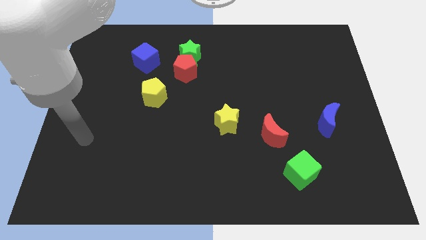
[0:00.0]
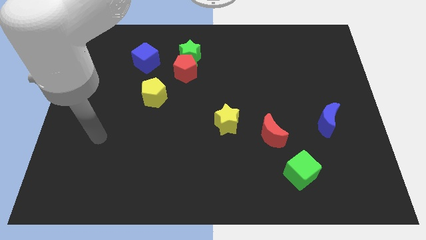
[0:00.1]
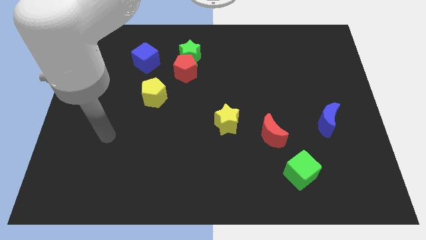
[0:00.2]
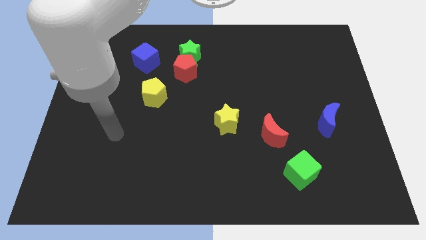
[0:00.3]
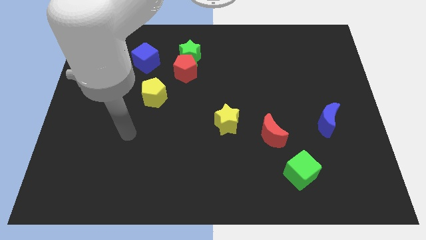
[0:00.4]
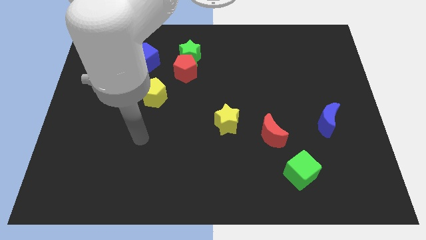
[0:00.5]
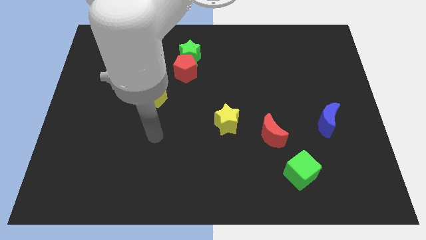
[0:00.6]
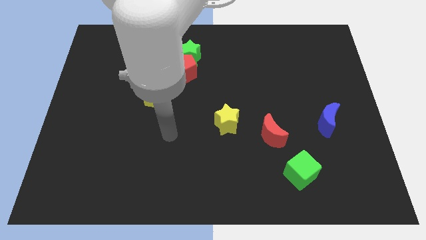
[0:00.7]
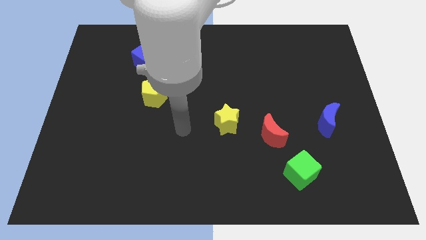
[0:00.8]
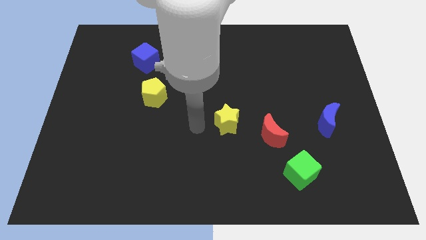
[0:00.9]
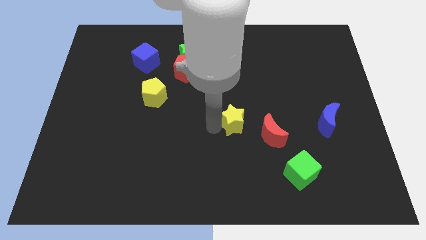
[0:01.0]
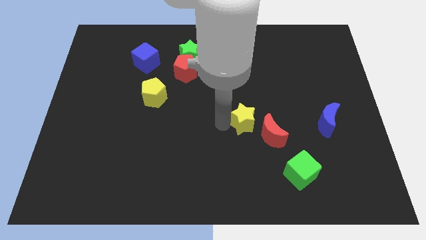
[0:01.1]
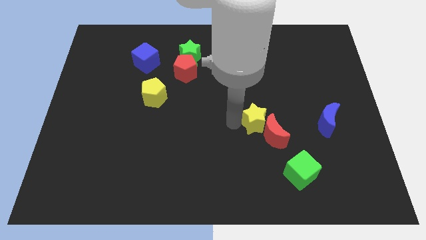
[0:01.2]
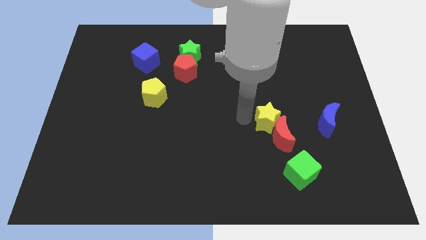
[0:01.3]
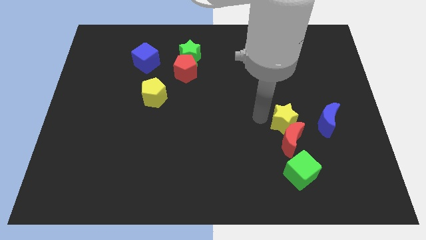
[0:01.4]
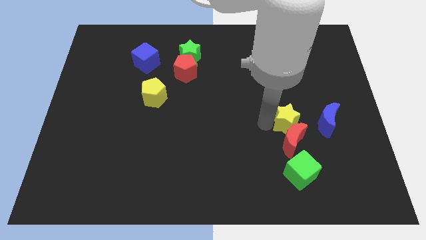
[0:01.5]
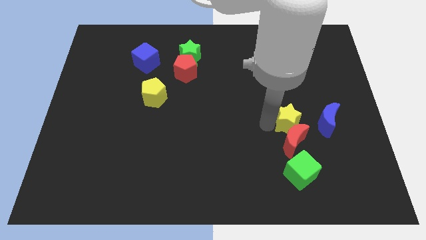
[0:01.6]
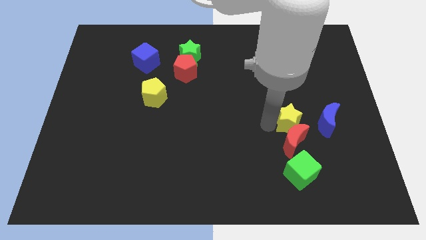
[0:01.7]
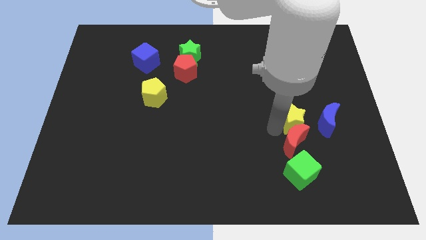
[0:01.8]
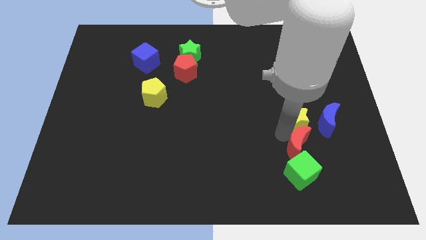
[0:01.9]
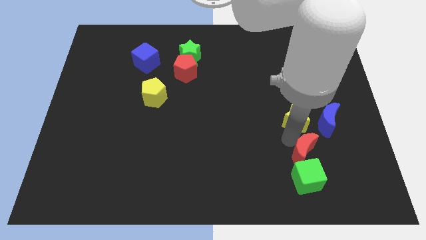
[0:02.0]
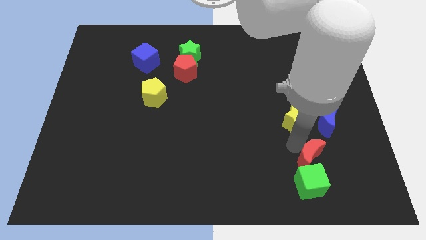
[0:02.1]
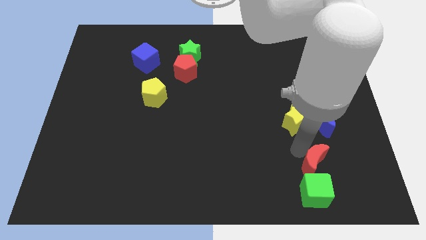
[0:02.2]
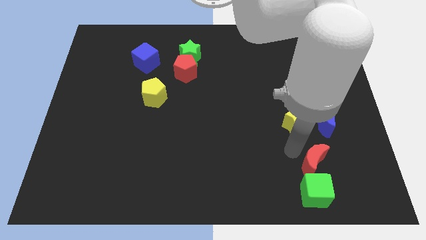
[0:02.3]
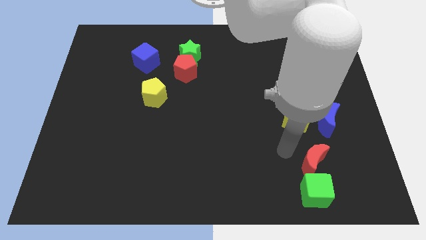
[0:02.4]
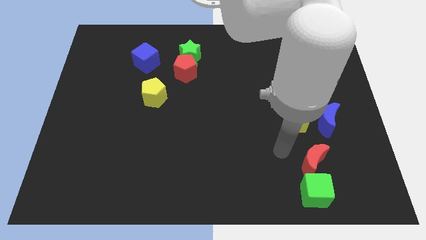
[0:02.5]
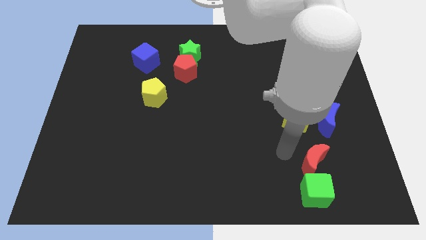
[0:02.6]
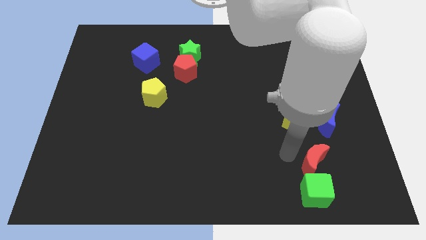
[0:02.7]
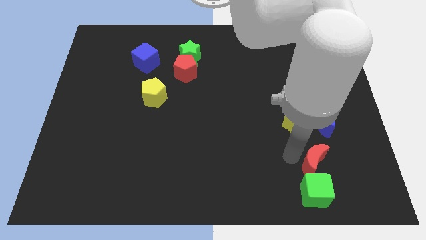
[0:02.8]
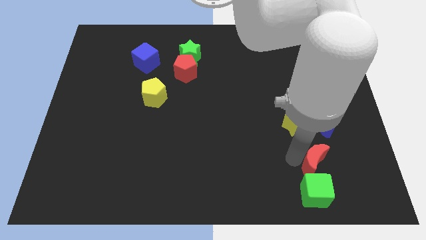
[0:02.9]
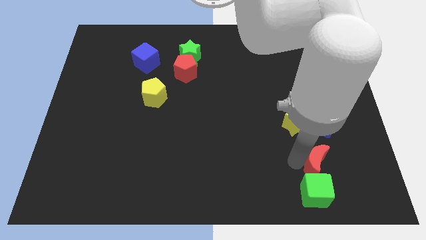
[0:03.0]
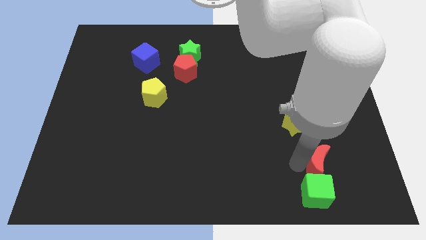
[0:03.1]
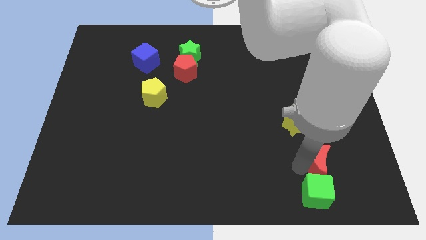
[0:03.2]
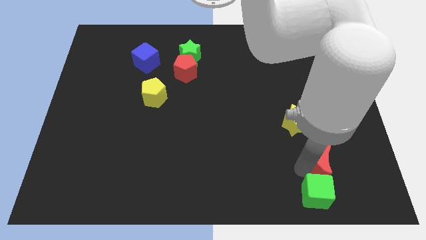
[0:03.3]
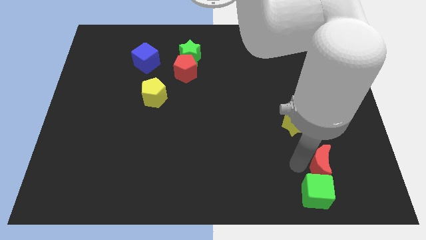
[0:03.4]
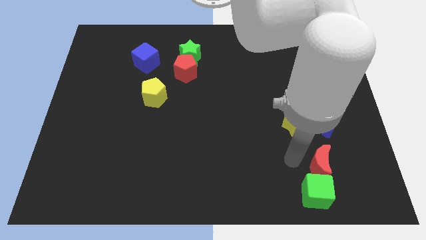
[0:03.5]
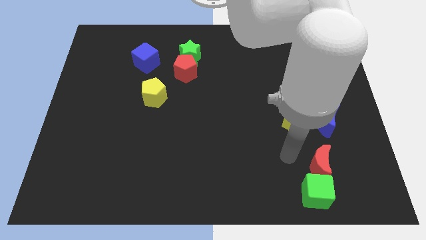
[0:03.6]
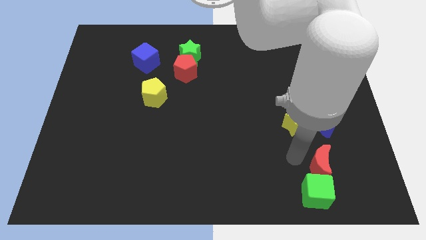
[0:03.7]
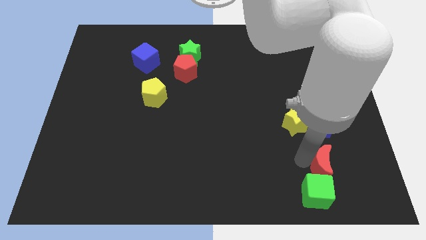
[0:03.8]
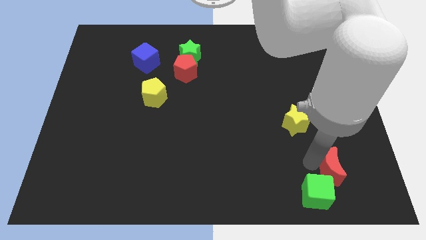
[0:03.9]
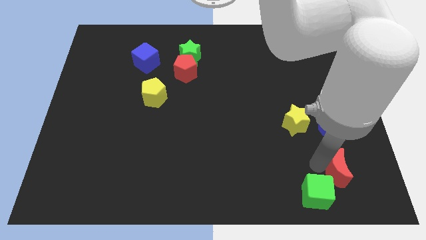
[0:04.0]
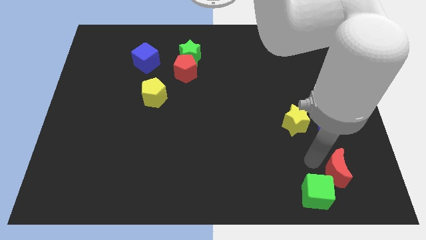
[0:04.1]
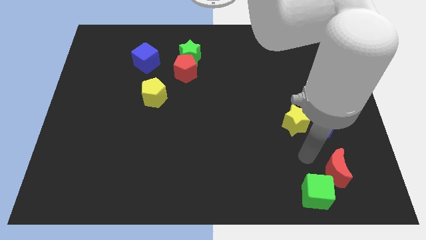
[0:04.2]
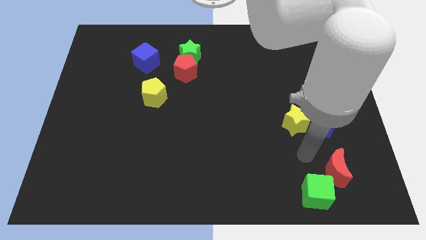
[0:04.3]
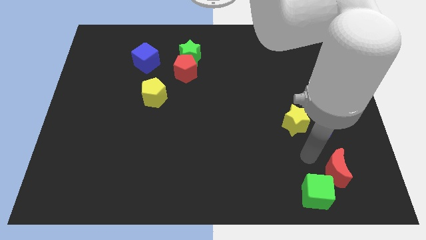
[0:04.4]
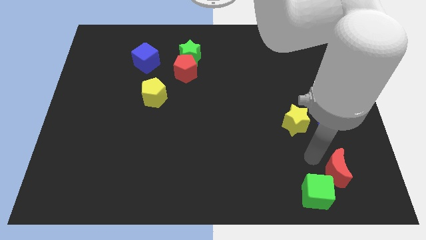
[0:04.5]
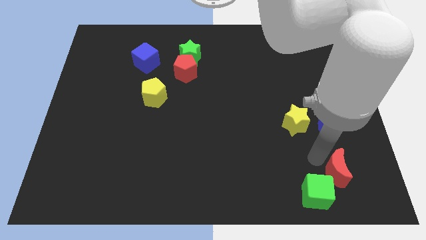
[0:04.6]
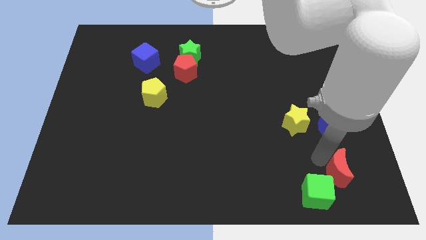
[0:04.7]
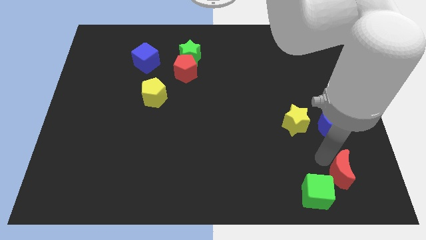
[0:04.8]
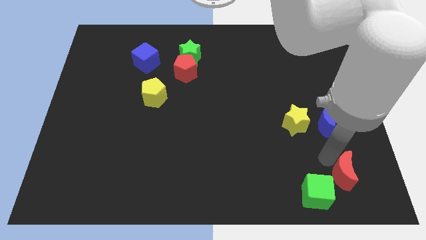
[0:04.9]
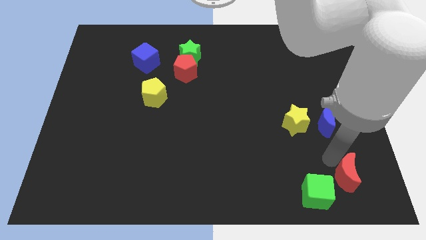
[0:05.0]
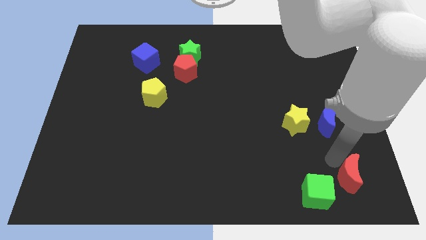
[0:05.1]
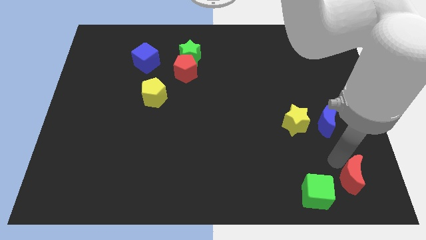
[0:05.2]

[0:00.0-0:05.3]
put the red moon to the bottom right of the board

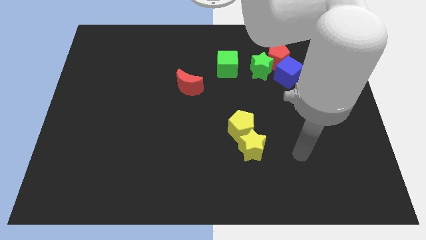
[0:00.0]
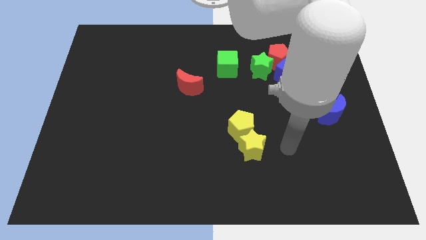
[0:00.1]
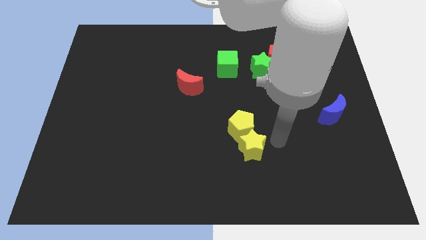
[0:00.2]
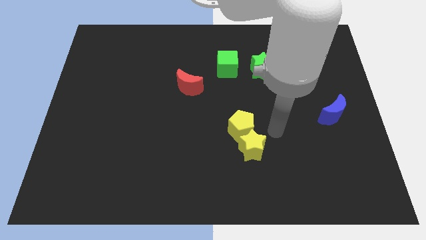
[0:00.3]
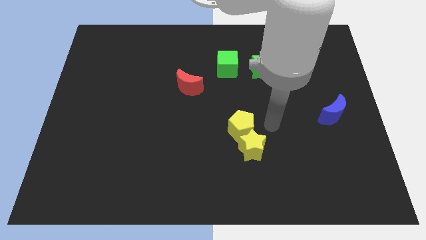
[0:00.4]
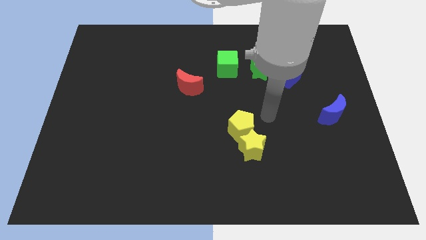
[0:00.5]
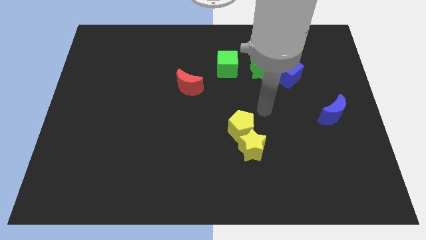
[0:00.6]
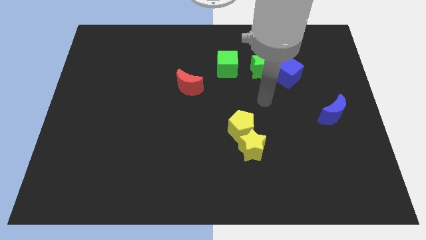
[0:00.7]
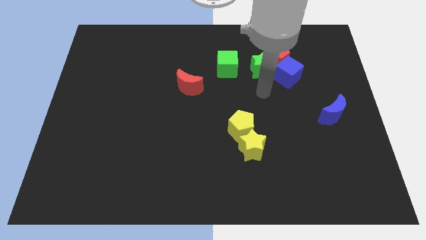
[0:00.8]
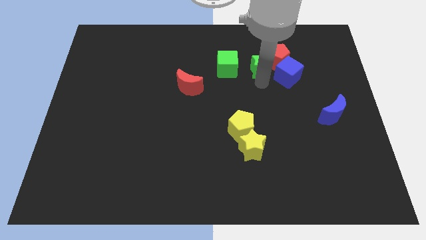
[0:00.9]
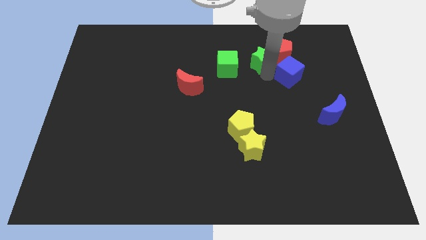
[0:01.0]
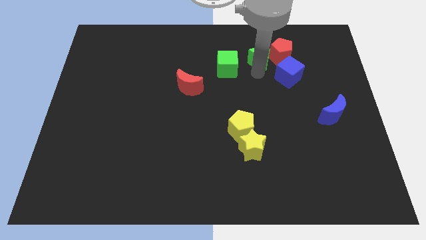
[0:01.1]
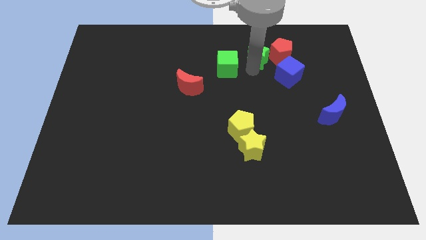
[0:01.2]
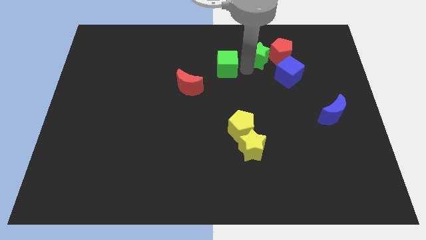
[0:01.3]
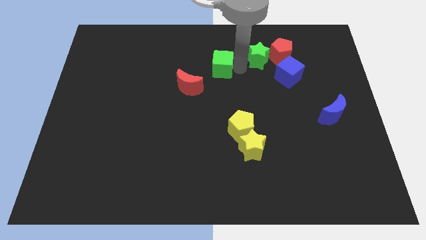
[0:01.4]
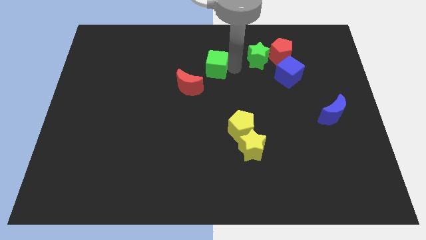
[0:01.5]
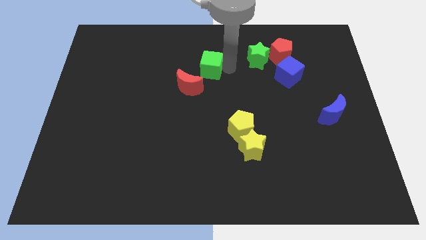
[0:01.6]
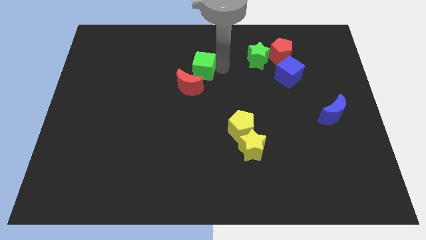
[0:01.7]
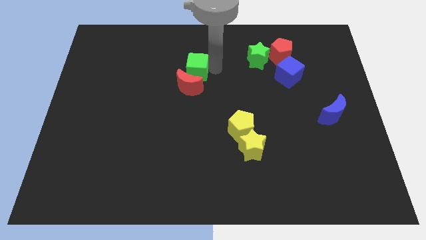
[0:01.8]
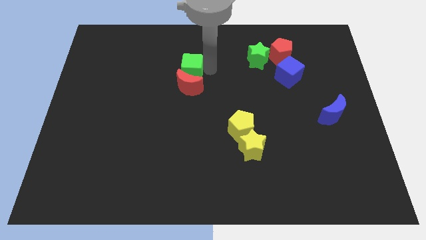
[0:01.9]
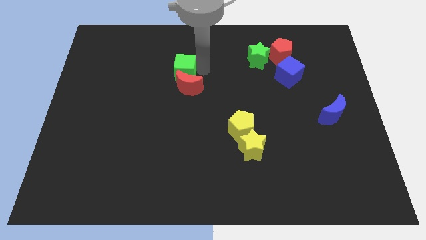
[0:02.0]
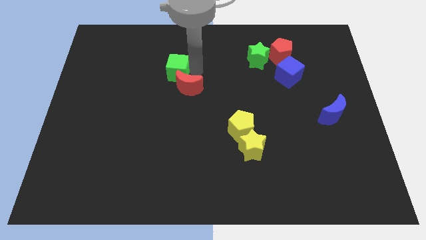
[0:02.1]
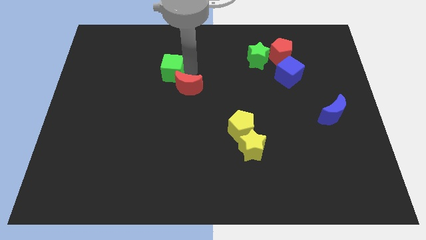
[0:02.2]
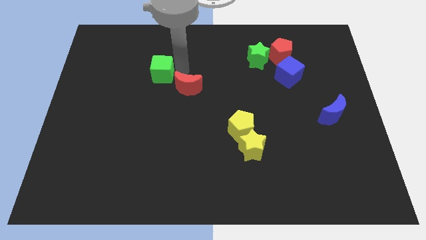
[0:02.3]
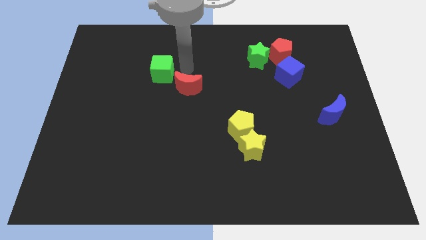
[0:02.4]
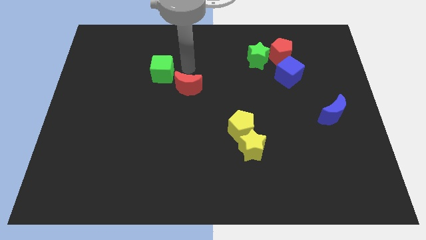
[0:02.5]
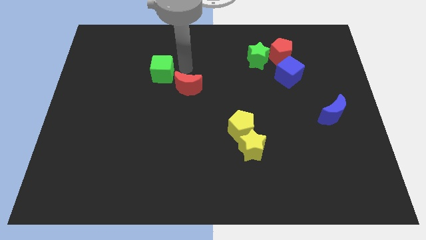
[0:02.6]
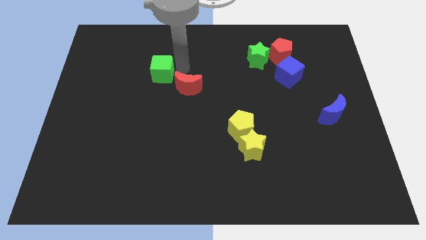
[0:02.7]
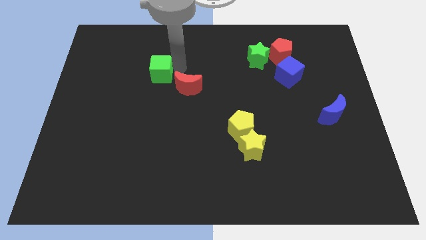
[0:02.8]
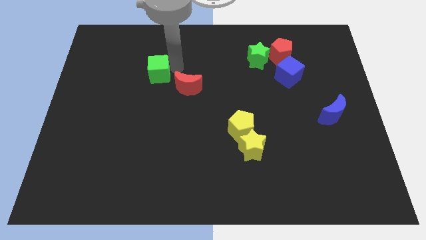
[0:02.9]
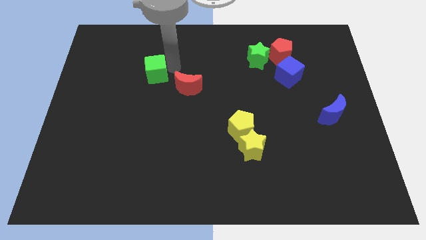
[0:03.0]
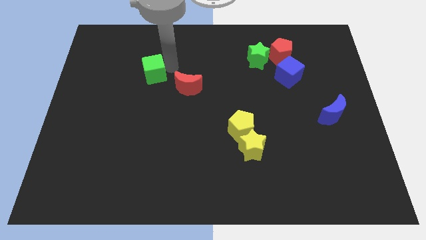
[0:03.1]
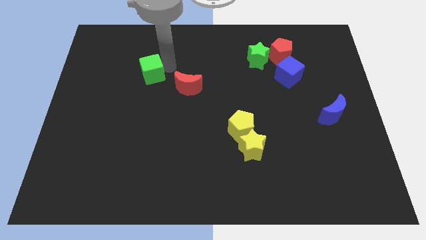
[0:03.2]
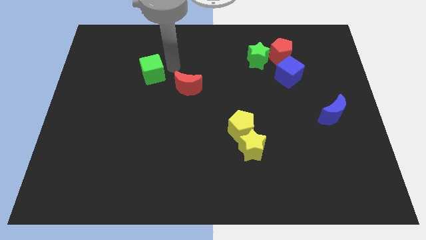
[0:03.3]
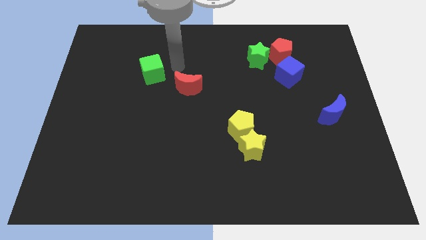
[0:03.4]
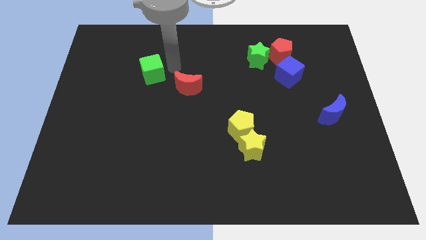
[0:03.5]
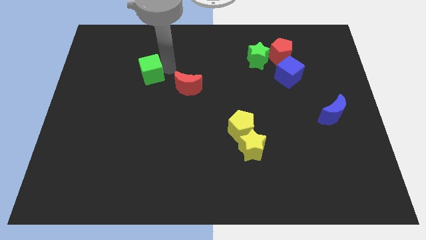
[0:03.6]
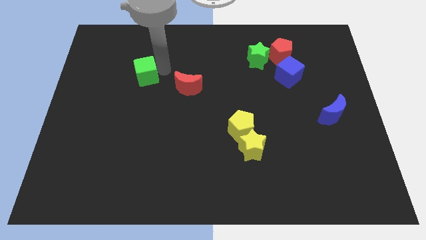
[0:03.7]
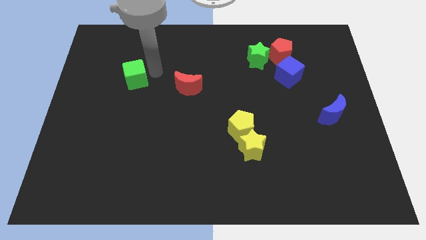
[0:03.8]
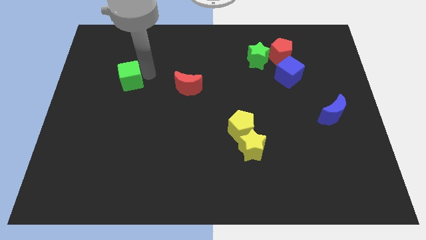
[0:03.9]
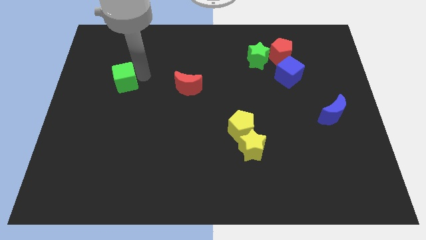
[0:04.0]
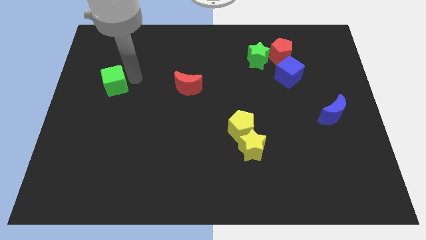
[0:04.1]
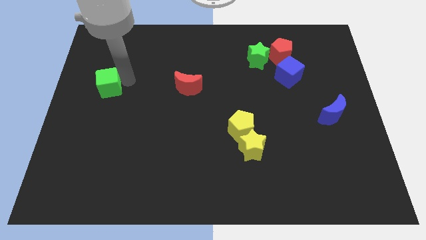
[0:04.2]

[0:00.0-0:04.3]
slide the green cube to the left side
